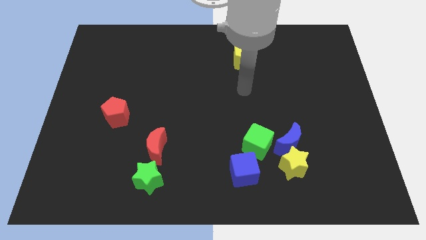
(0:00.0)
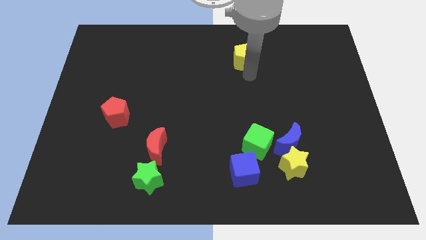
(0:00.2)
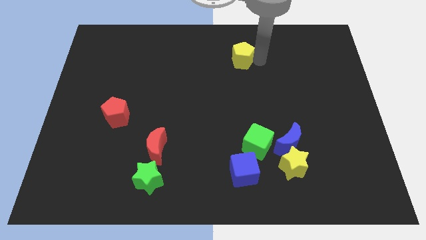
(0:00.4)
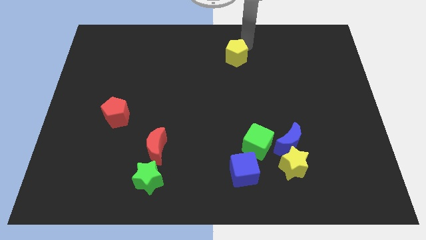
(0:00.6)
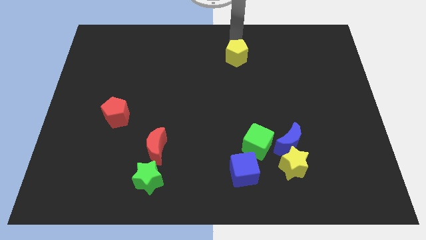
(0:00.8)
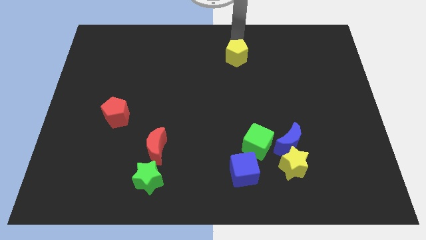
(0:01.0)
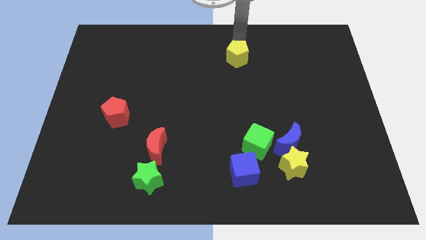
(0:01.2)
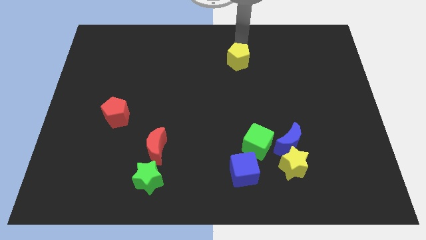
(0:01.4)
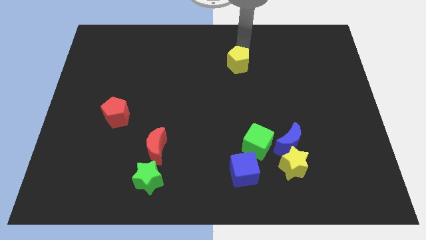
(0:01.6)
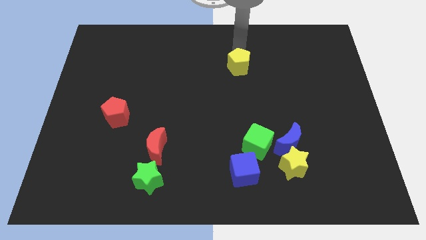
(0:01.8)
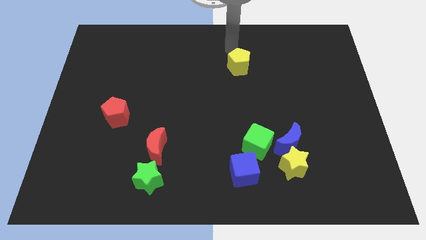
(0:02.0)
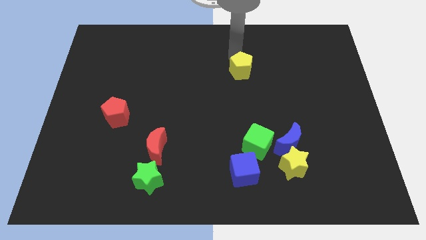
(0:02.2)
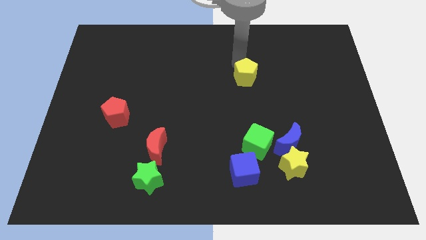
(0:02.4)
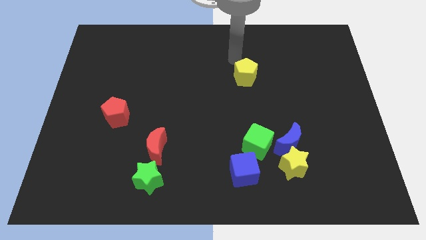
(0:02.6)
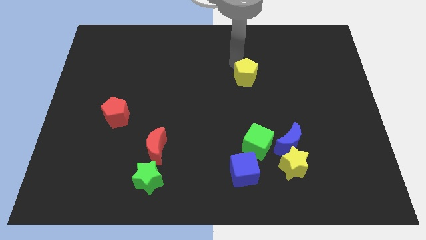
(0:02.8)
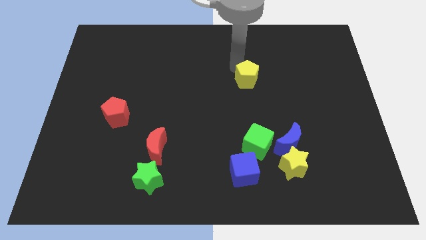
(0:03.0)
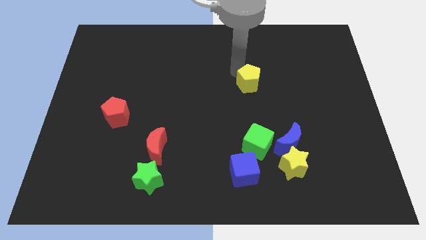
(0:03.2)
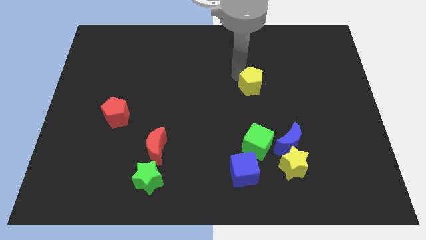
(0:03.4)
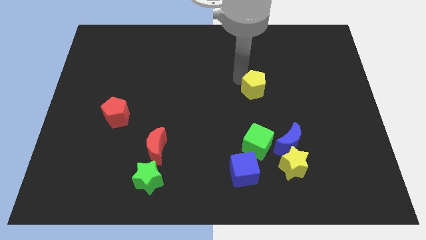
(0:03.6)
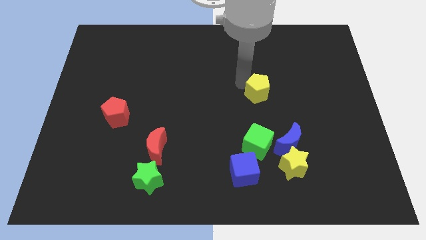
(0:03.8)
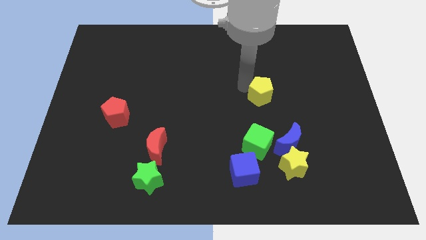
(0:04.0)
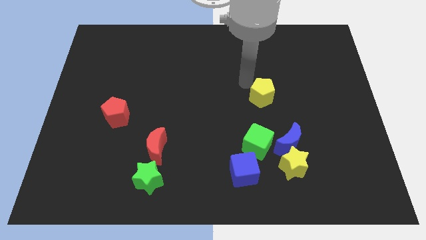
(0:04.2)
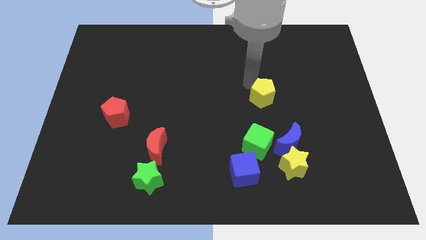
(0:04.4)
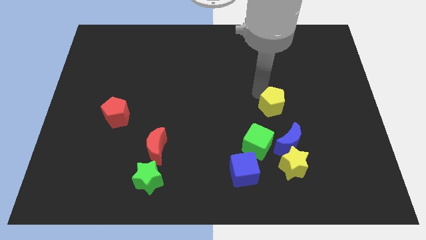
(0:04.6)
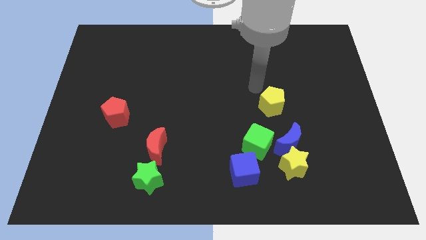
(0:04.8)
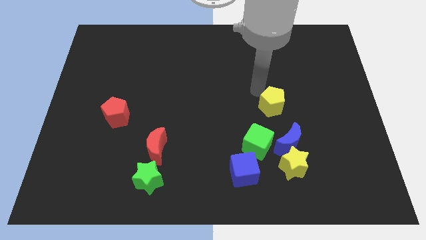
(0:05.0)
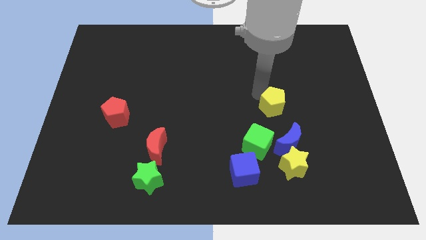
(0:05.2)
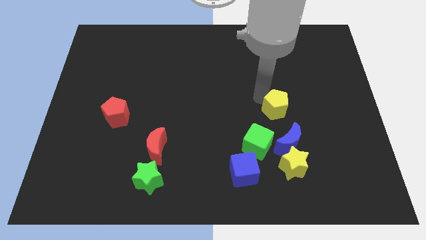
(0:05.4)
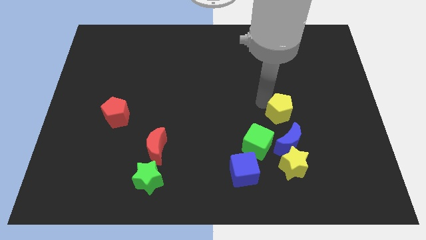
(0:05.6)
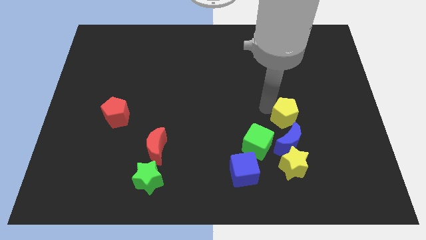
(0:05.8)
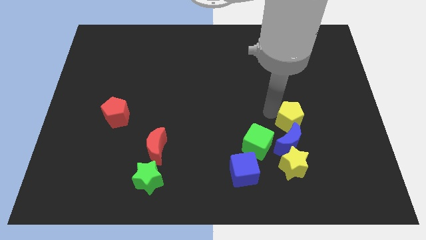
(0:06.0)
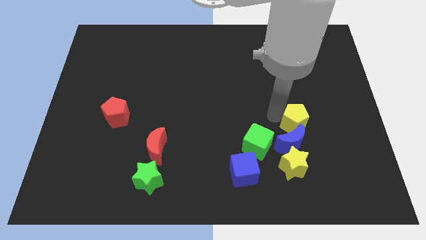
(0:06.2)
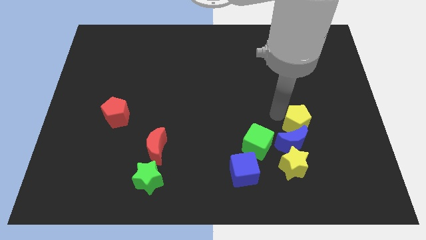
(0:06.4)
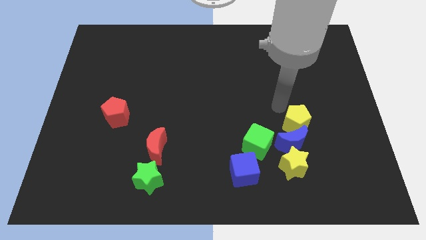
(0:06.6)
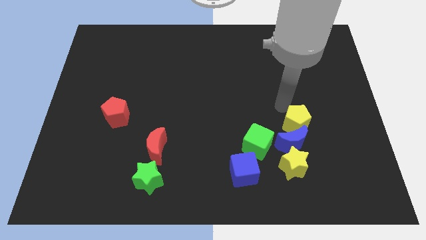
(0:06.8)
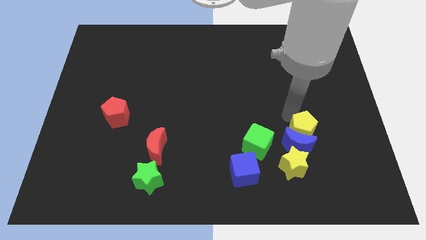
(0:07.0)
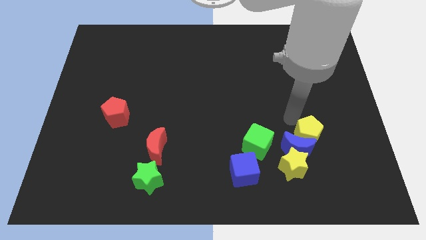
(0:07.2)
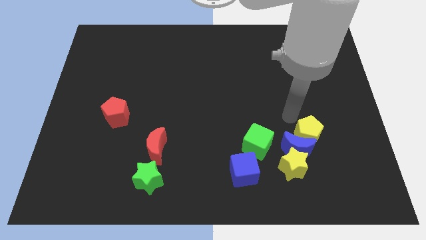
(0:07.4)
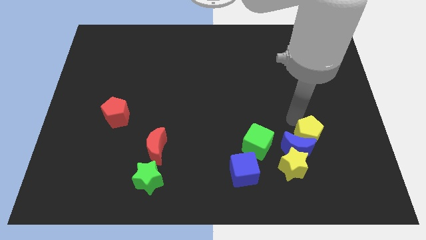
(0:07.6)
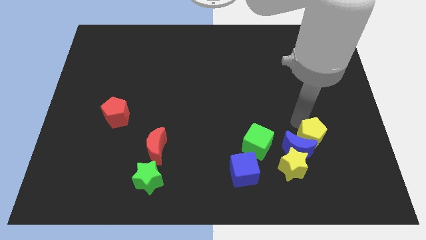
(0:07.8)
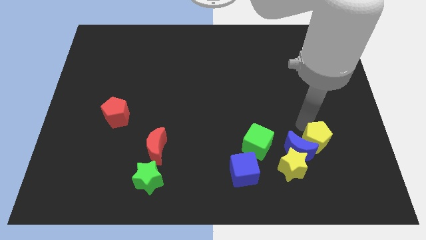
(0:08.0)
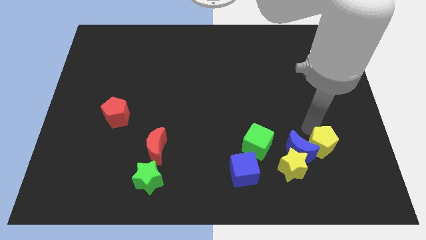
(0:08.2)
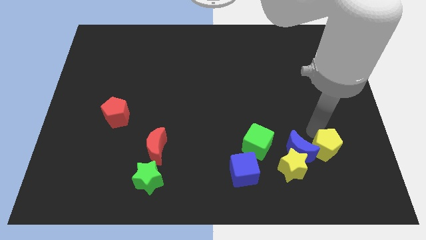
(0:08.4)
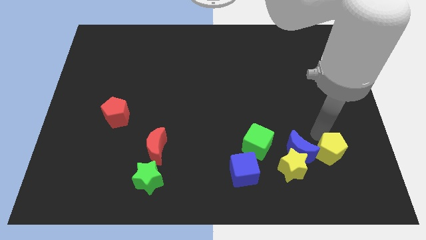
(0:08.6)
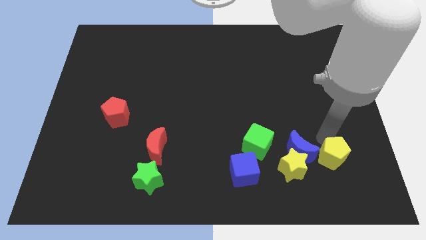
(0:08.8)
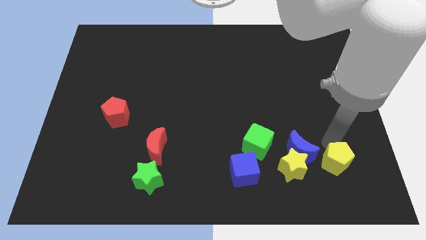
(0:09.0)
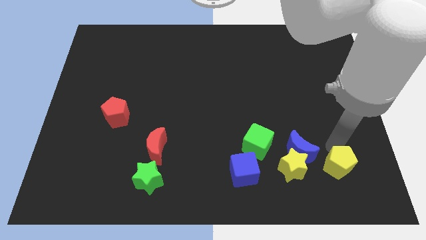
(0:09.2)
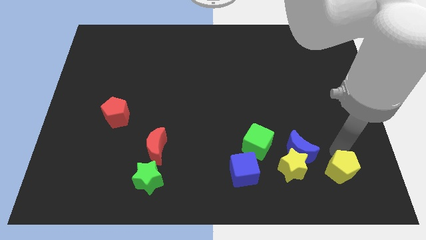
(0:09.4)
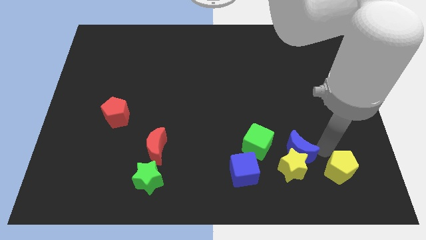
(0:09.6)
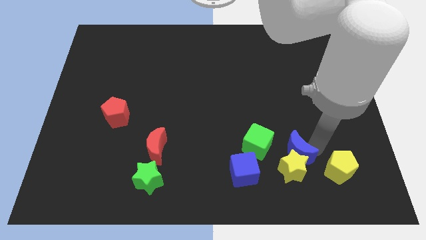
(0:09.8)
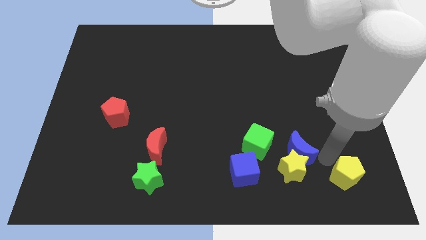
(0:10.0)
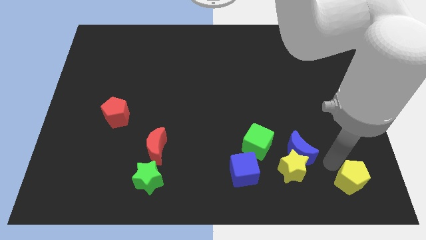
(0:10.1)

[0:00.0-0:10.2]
move the yellow pentagon to the bottom right corner
